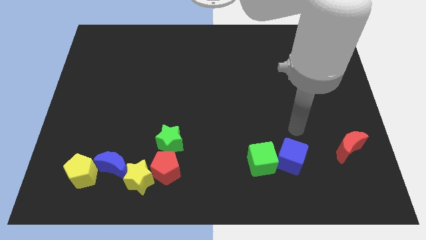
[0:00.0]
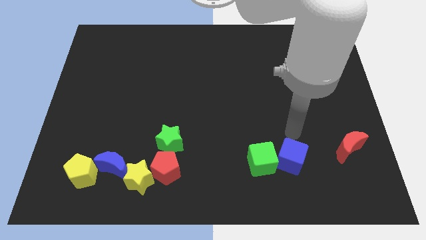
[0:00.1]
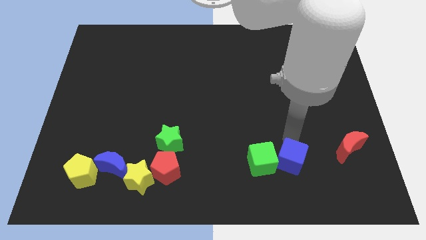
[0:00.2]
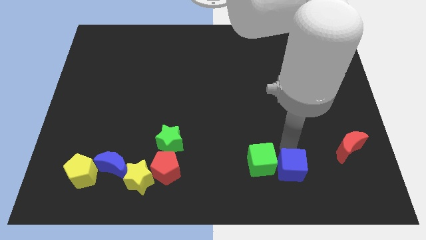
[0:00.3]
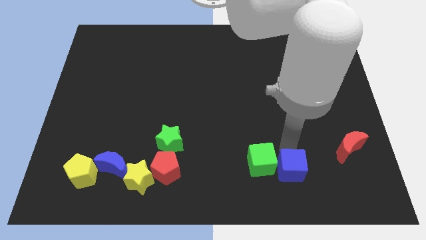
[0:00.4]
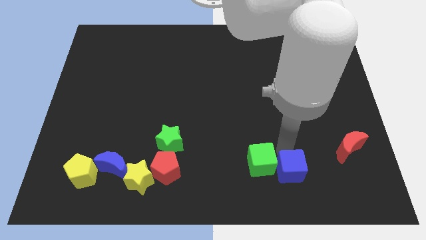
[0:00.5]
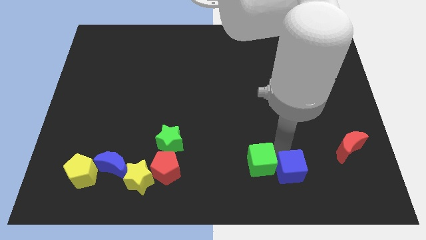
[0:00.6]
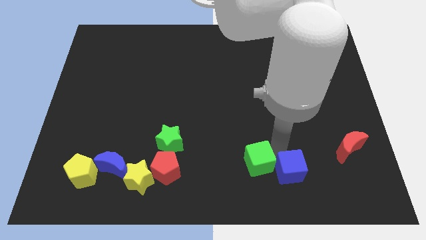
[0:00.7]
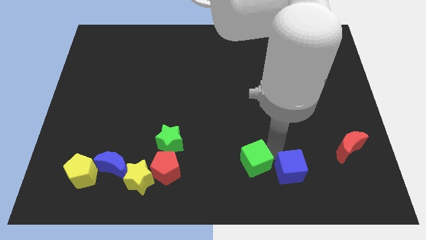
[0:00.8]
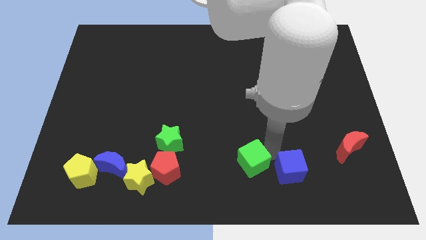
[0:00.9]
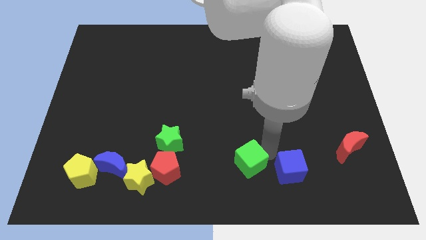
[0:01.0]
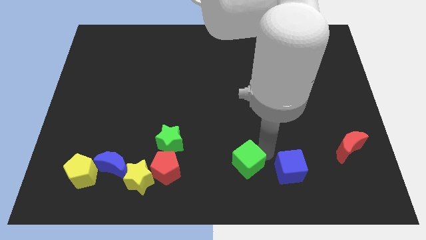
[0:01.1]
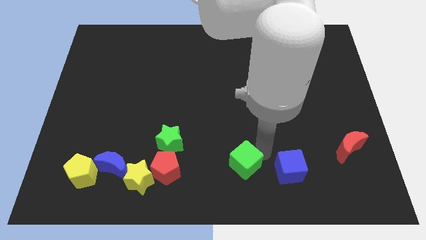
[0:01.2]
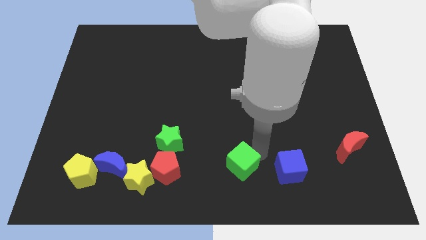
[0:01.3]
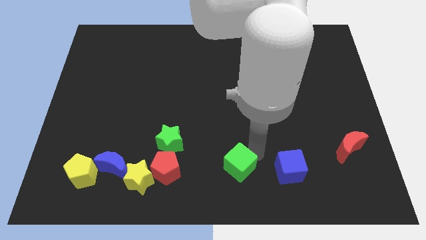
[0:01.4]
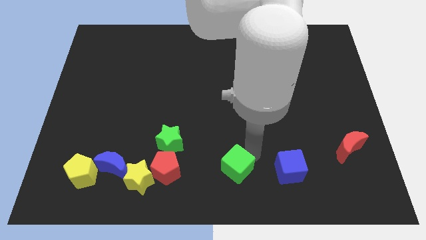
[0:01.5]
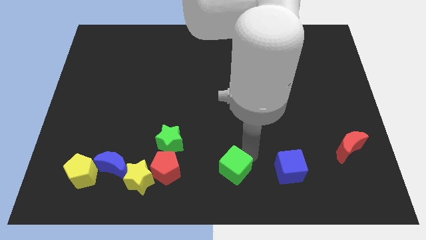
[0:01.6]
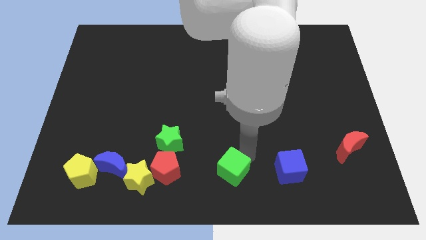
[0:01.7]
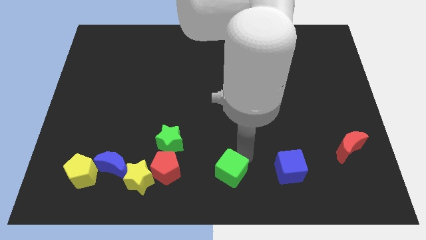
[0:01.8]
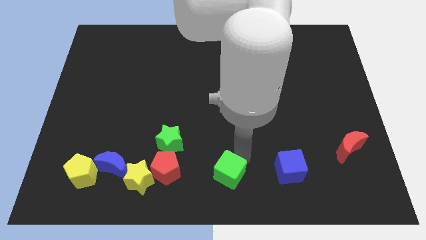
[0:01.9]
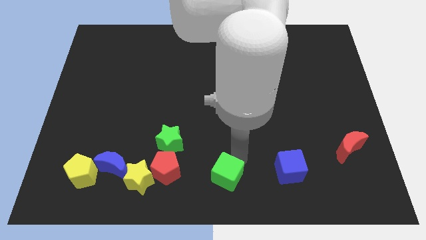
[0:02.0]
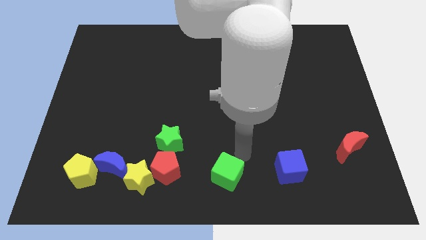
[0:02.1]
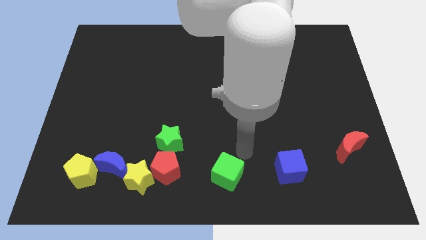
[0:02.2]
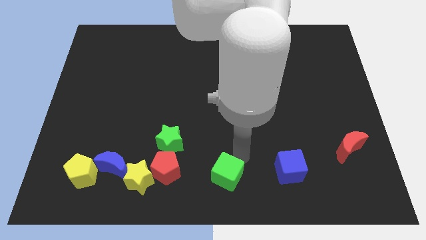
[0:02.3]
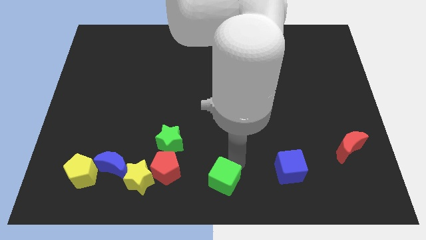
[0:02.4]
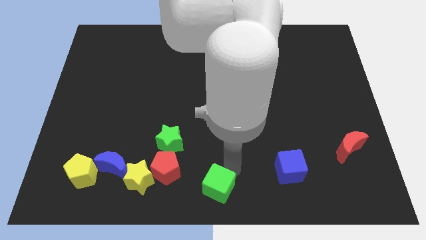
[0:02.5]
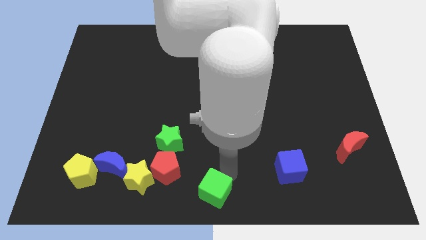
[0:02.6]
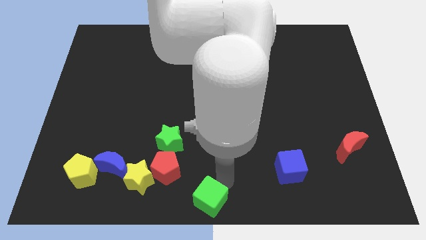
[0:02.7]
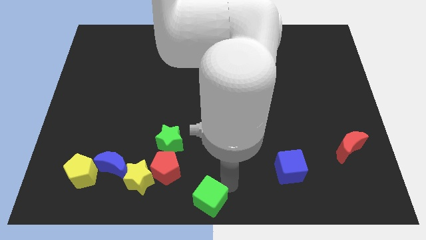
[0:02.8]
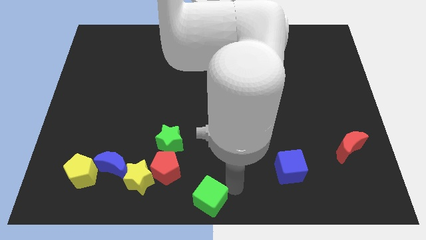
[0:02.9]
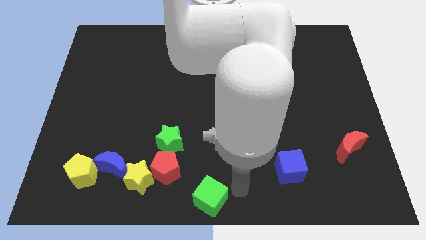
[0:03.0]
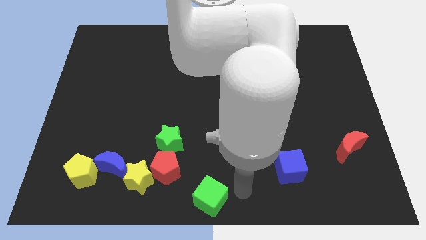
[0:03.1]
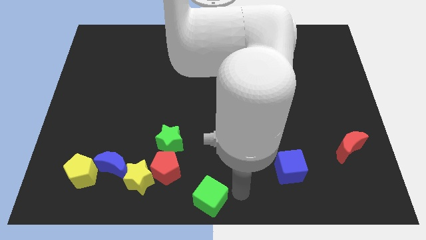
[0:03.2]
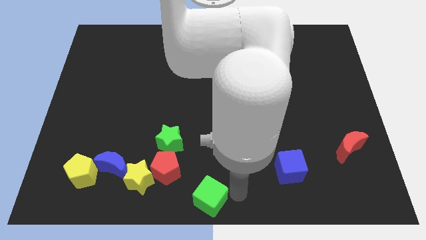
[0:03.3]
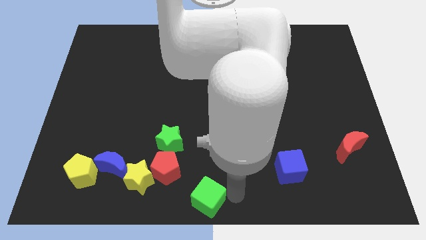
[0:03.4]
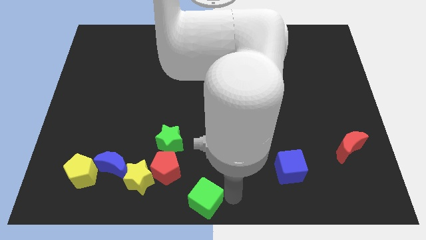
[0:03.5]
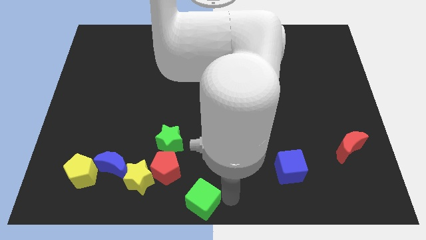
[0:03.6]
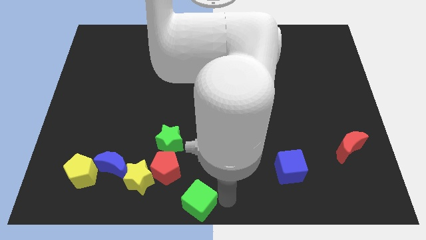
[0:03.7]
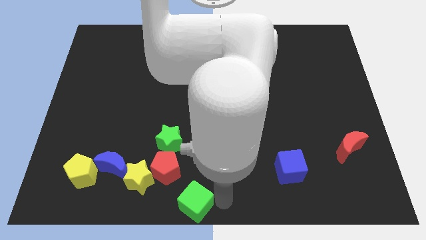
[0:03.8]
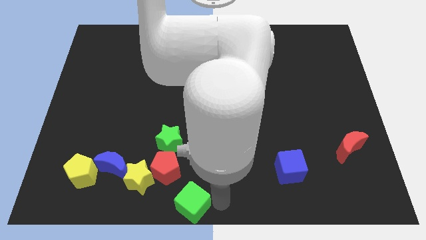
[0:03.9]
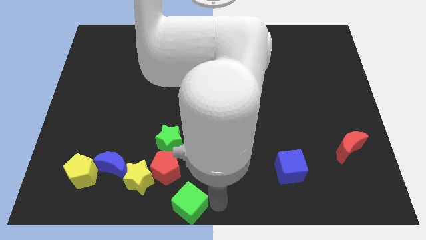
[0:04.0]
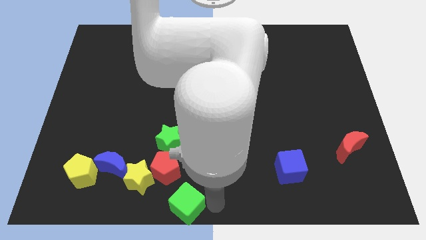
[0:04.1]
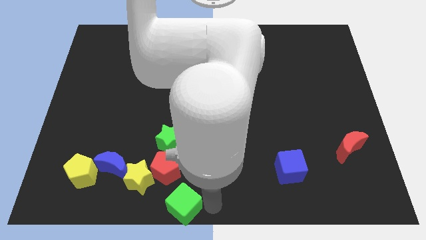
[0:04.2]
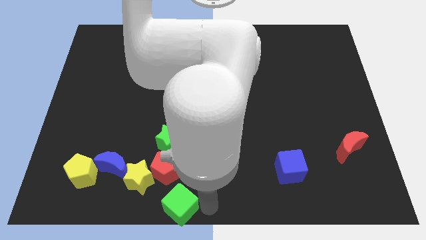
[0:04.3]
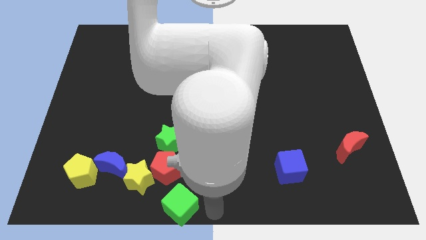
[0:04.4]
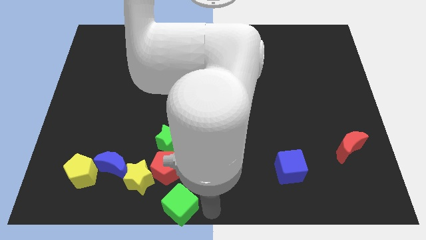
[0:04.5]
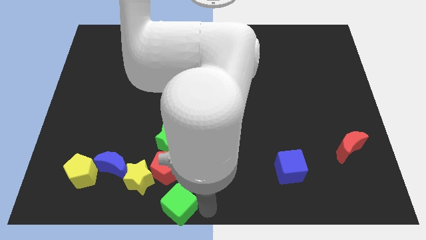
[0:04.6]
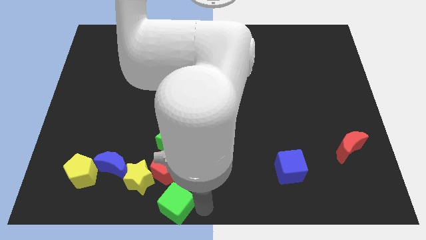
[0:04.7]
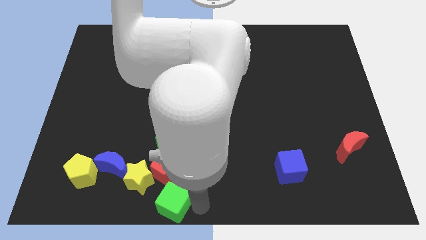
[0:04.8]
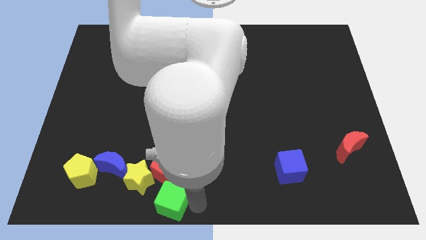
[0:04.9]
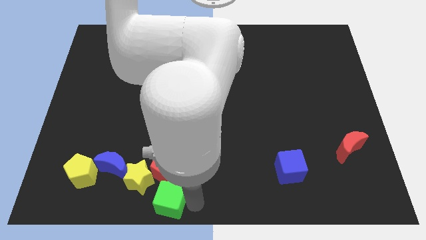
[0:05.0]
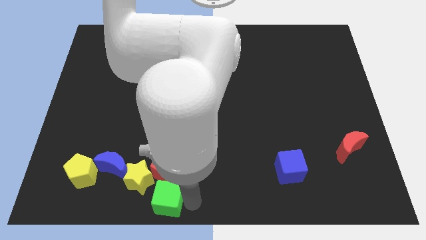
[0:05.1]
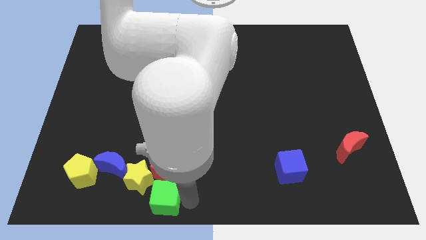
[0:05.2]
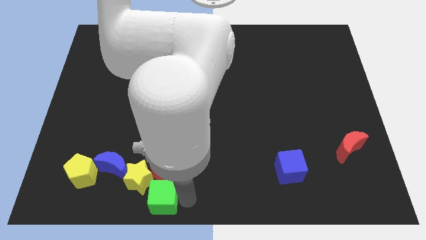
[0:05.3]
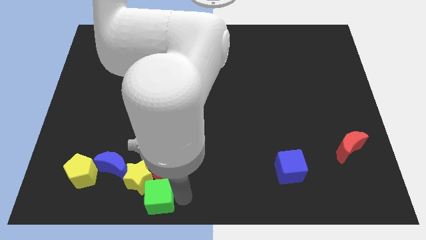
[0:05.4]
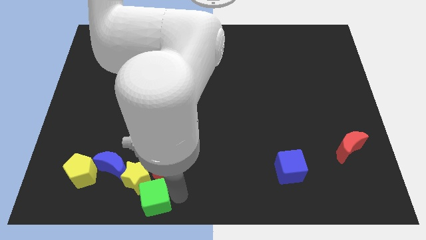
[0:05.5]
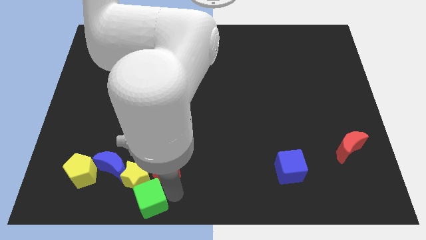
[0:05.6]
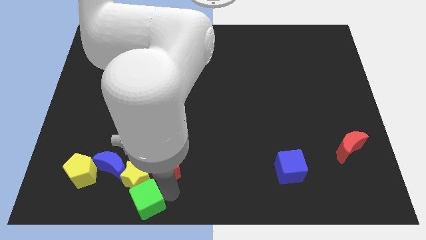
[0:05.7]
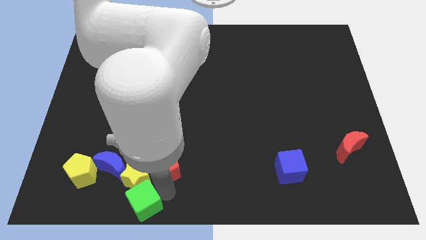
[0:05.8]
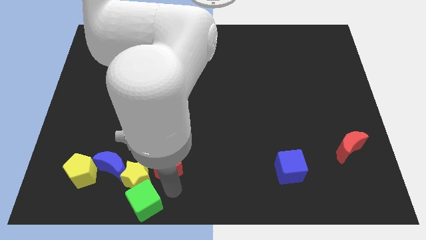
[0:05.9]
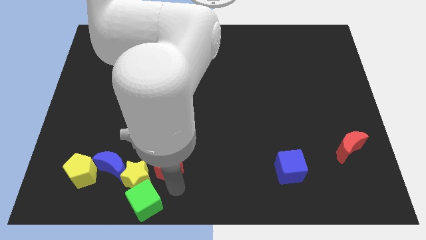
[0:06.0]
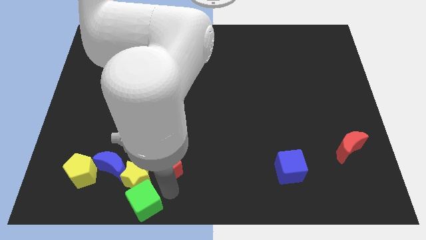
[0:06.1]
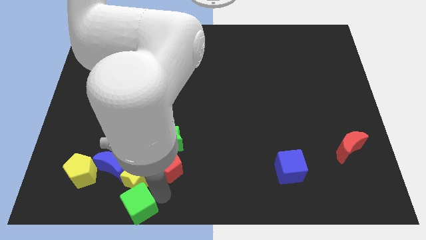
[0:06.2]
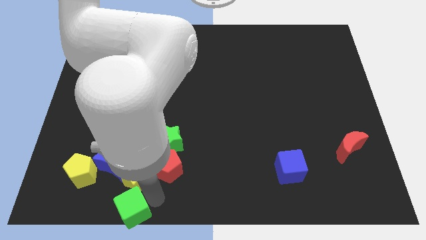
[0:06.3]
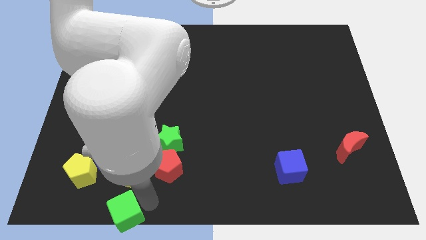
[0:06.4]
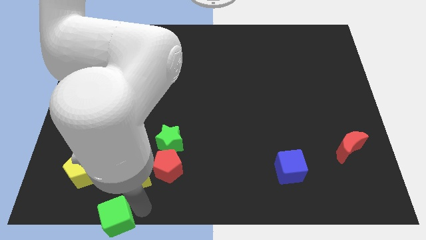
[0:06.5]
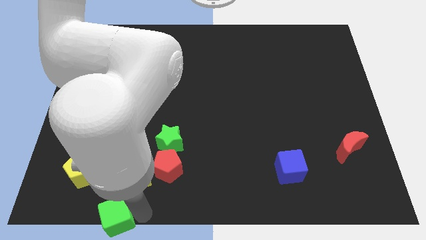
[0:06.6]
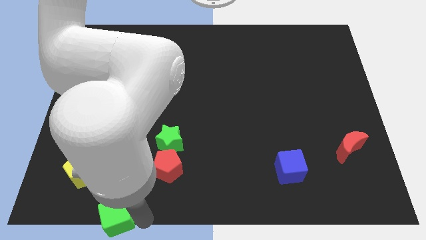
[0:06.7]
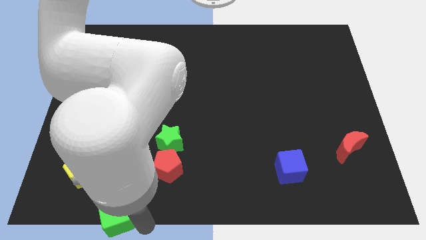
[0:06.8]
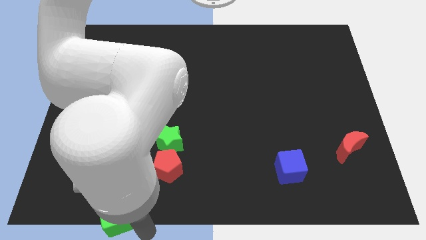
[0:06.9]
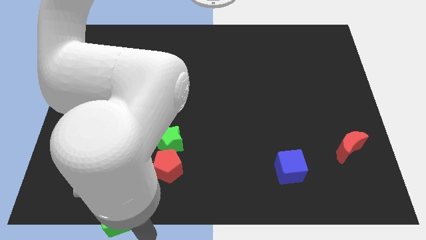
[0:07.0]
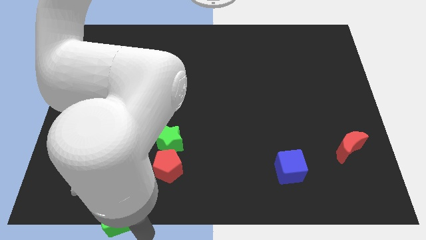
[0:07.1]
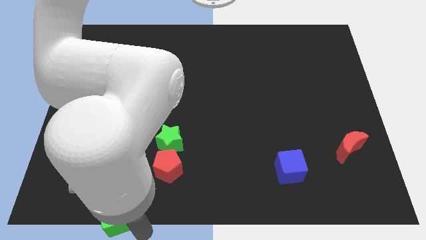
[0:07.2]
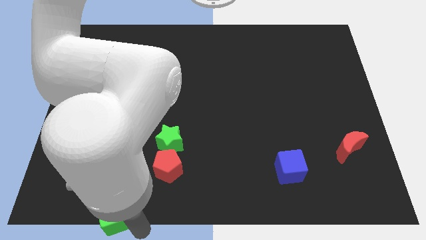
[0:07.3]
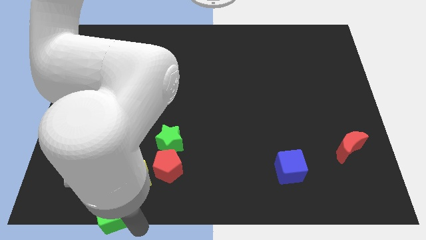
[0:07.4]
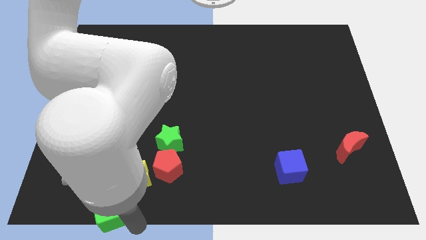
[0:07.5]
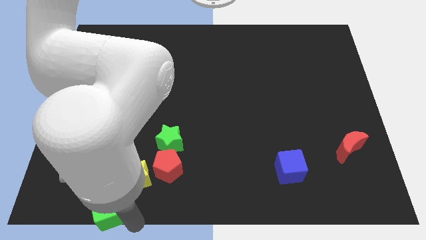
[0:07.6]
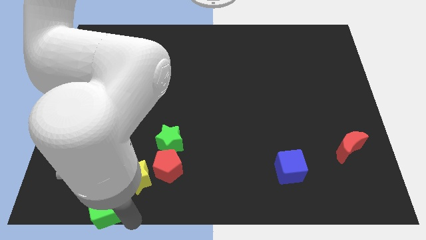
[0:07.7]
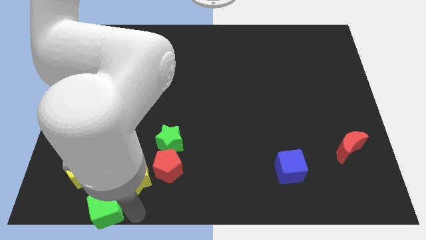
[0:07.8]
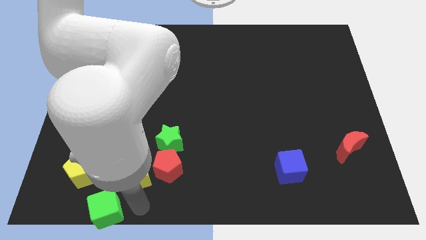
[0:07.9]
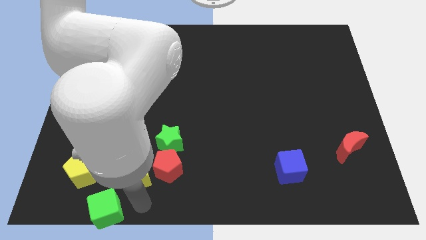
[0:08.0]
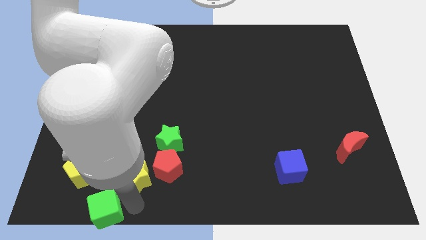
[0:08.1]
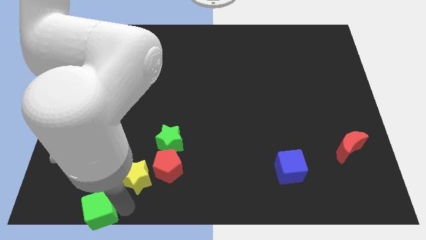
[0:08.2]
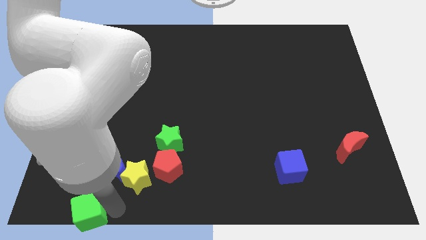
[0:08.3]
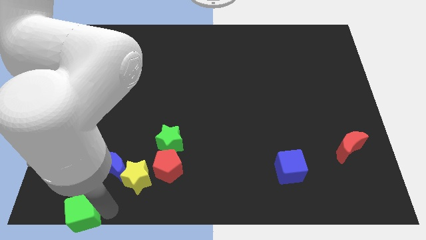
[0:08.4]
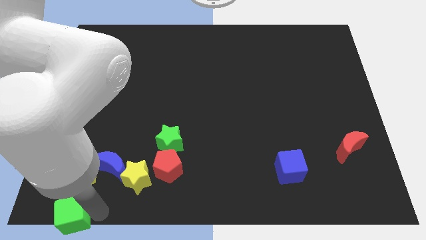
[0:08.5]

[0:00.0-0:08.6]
move the green cube to the lower left corner
